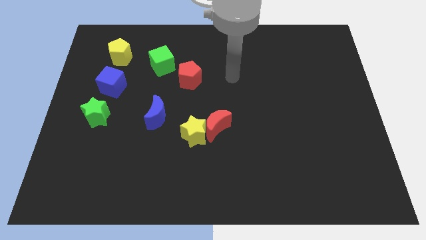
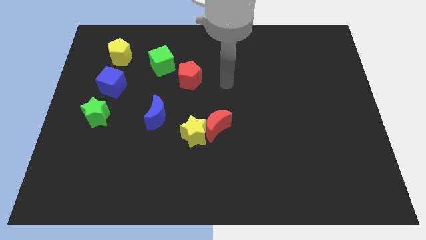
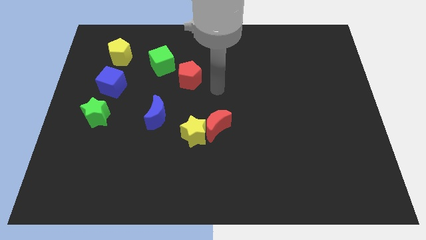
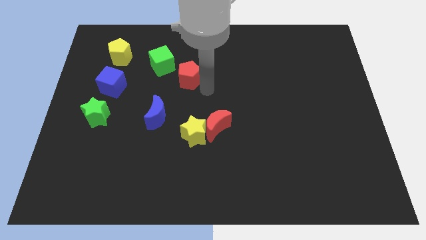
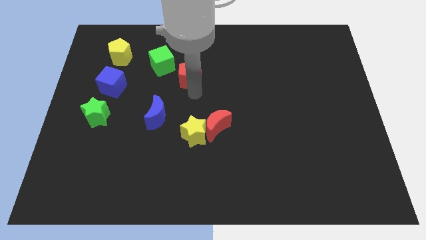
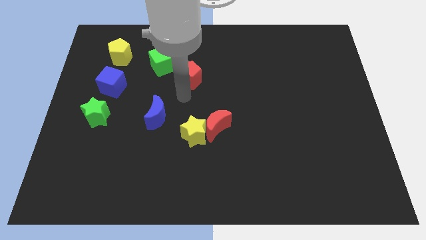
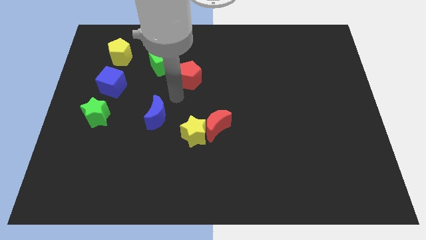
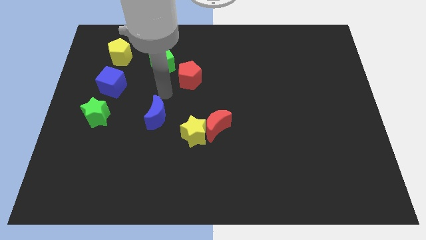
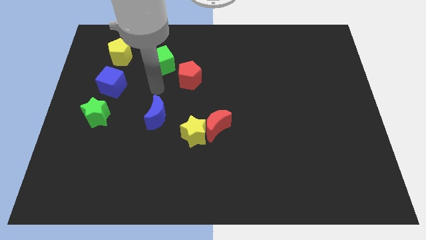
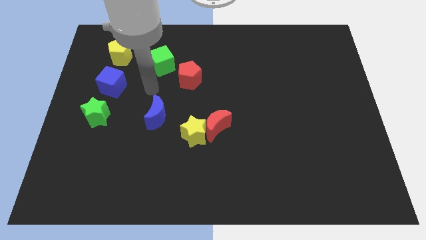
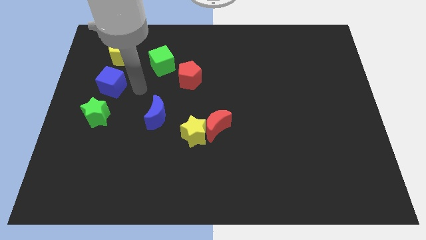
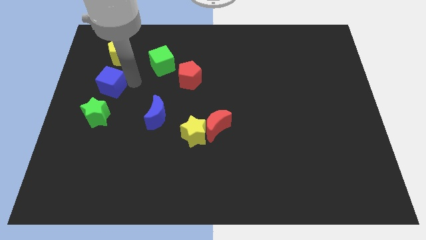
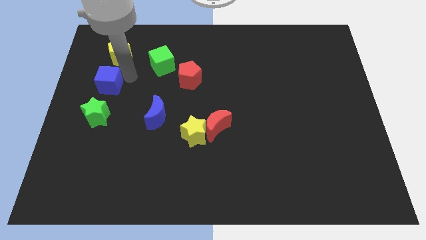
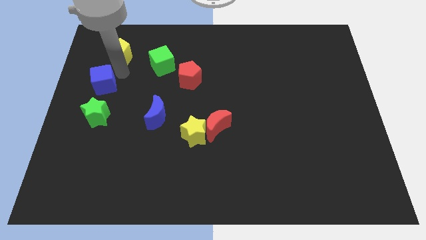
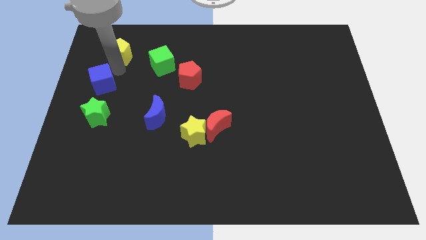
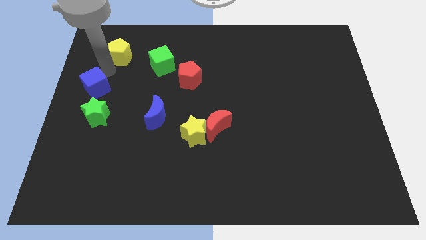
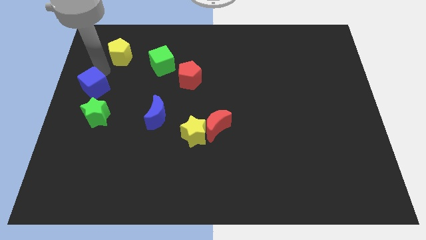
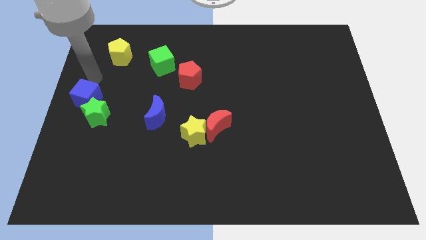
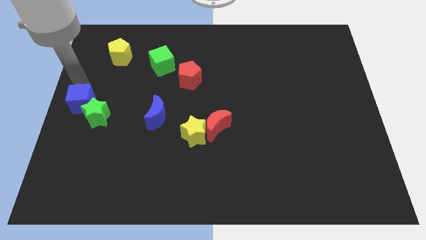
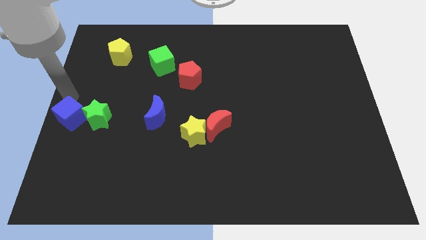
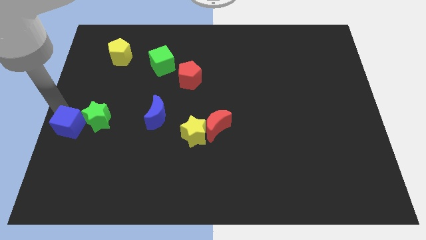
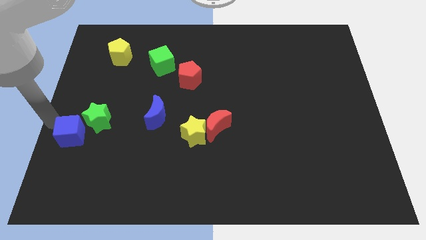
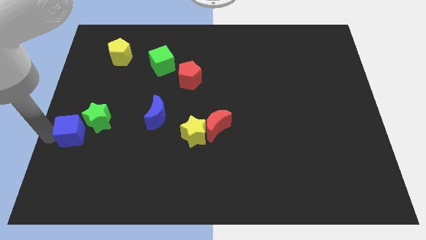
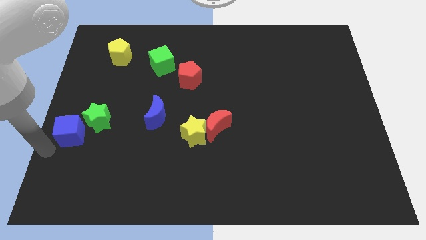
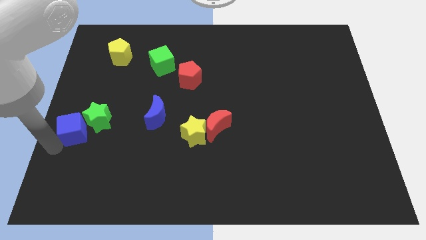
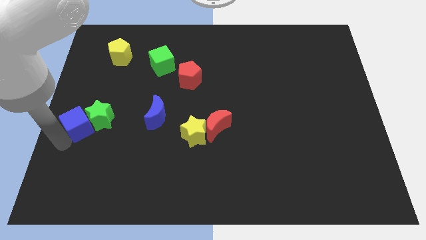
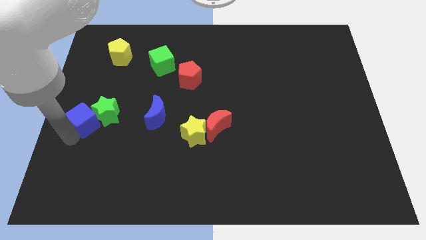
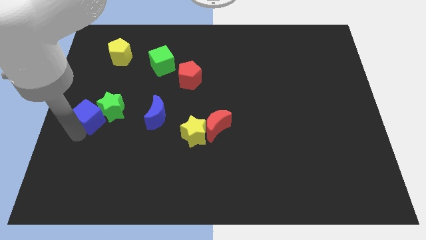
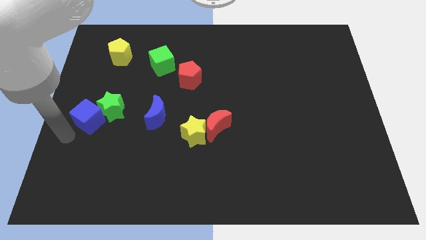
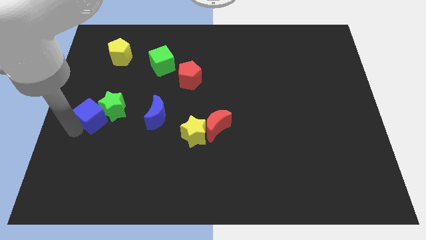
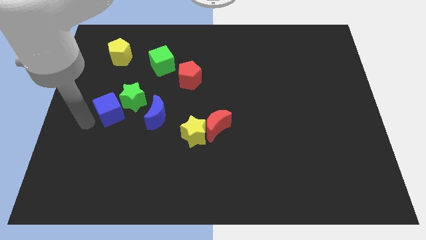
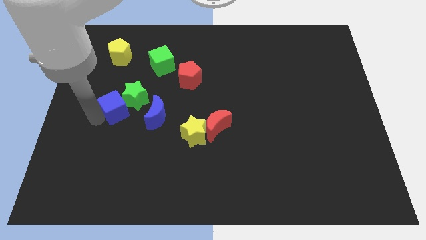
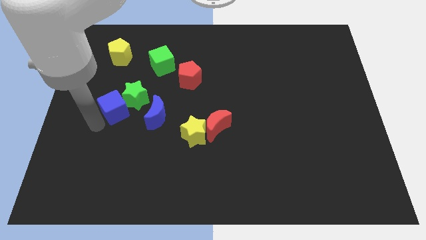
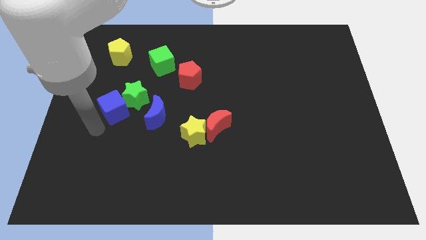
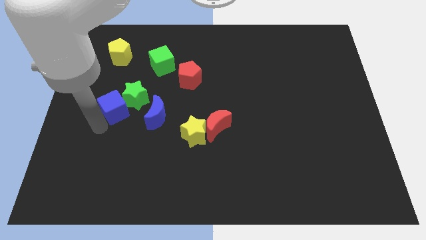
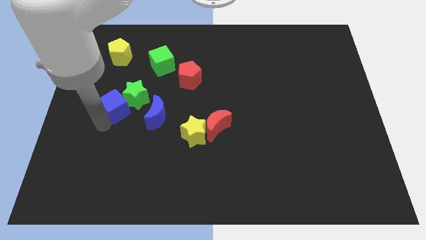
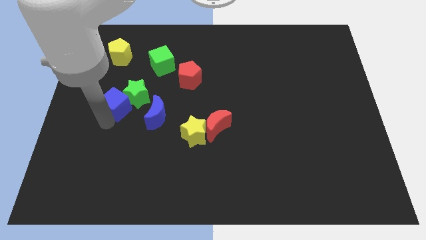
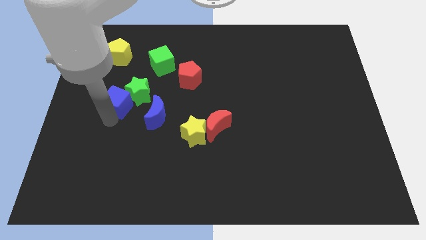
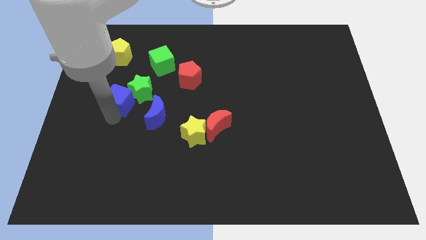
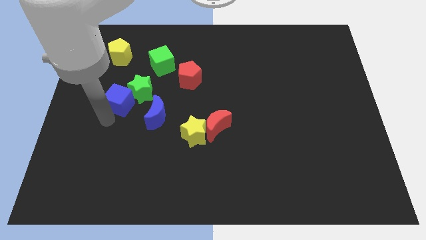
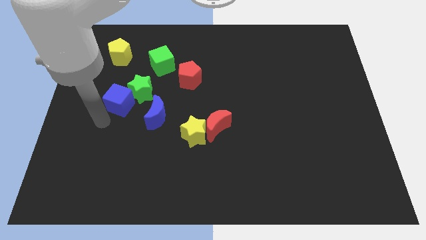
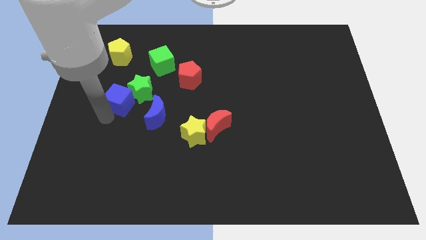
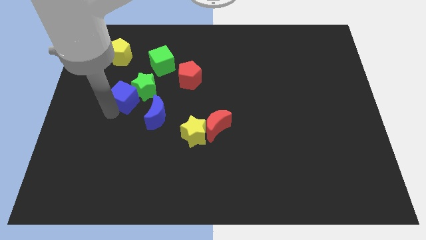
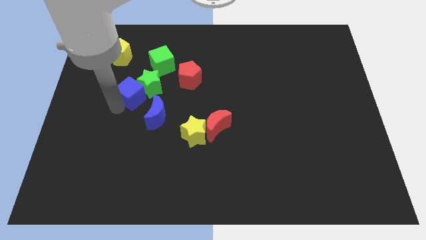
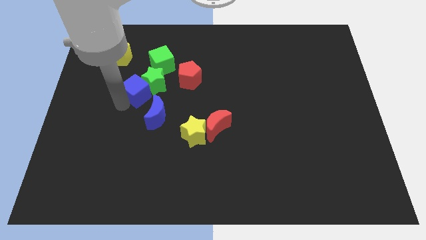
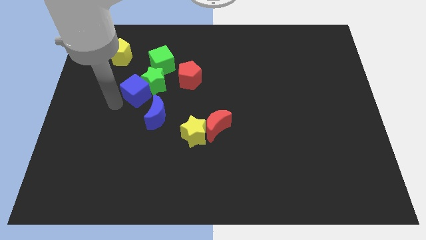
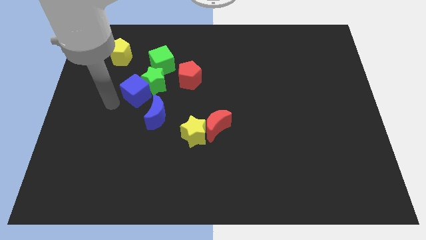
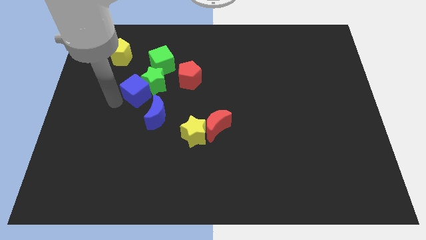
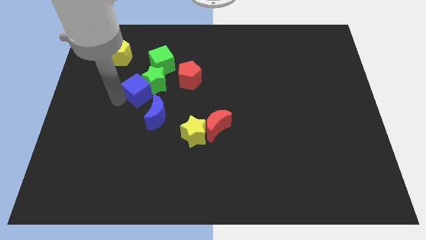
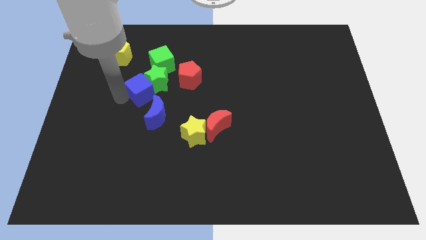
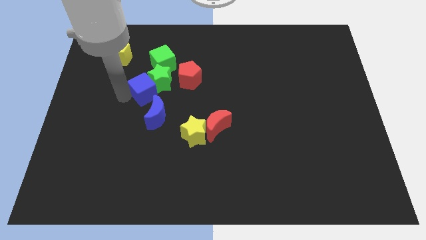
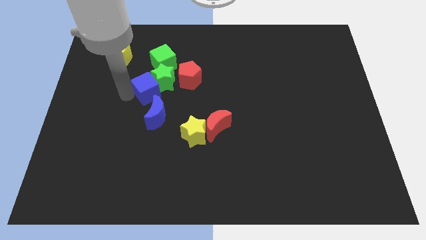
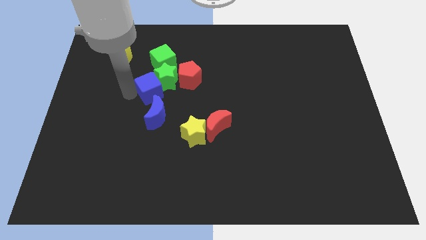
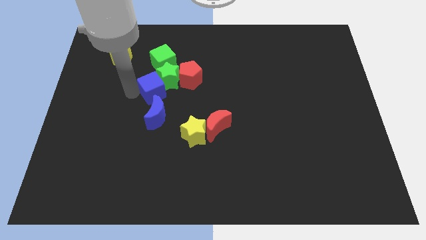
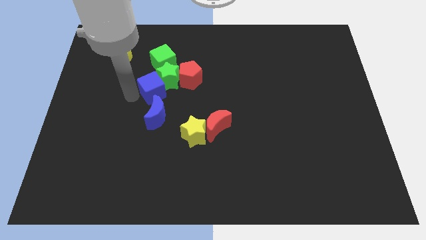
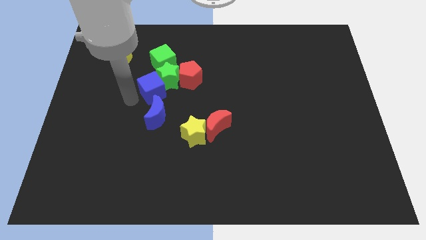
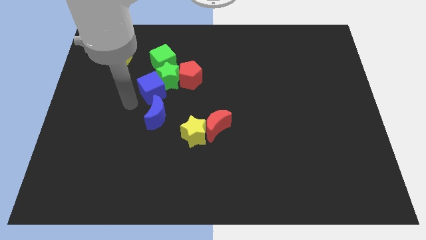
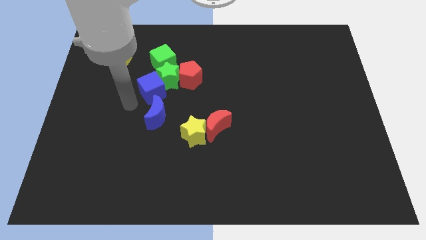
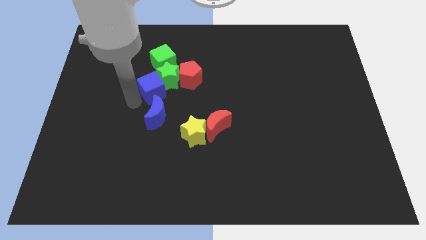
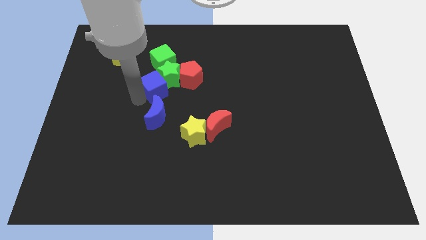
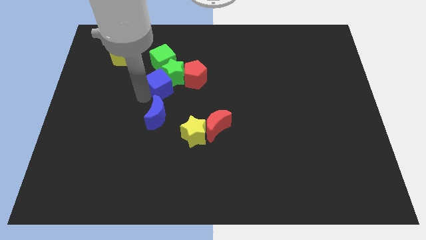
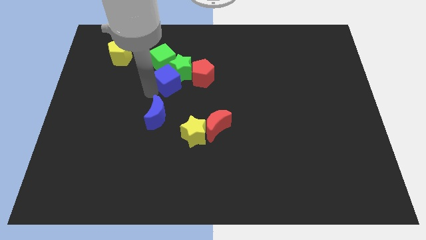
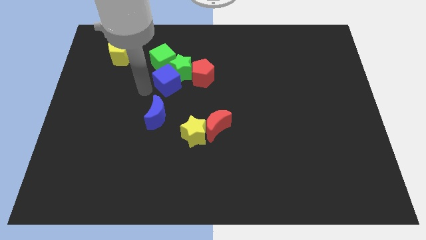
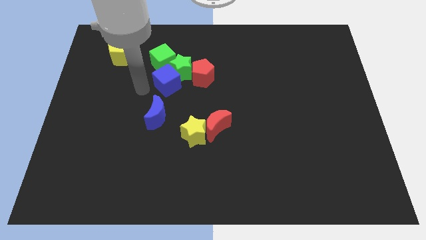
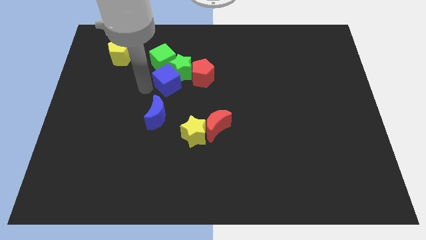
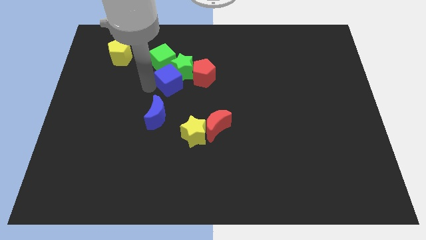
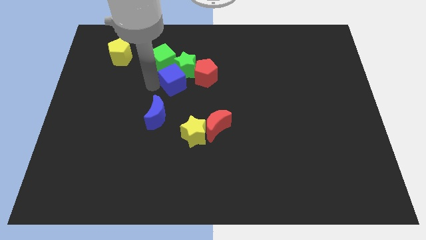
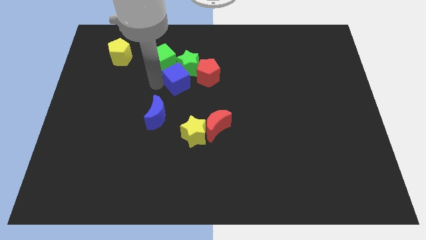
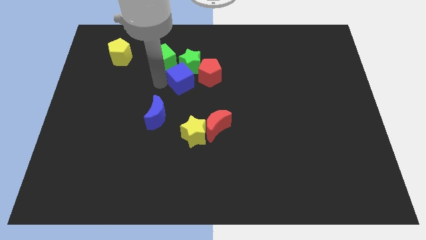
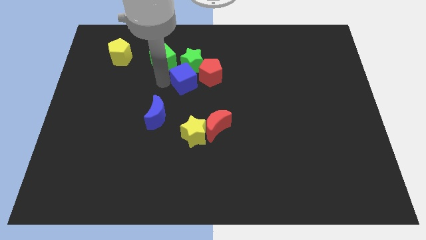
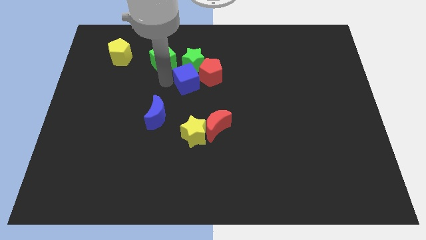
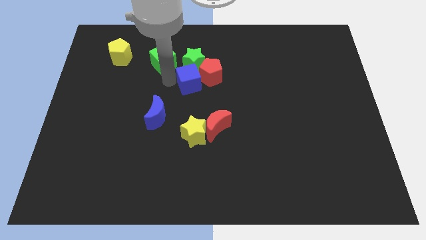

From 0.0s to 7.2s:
push the blue cube close to the red pentagon
